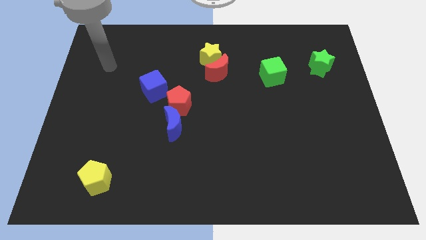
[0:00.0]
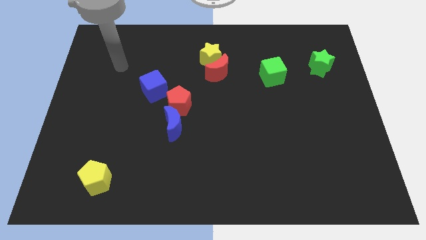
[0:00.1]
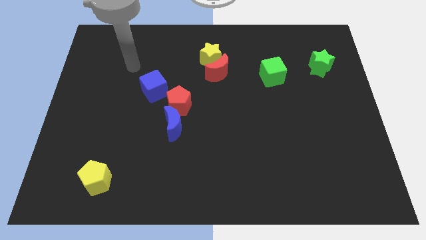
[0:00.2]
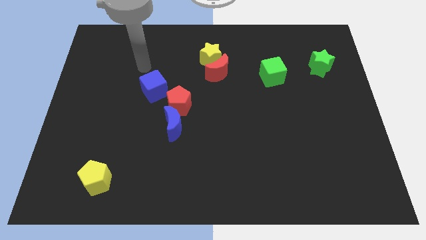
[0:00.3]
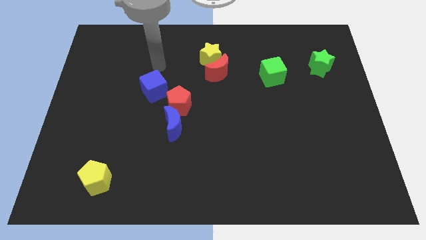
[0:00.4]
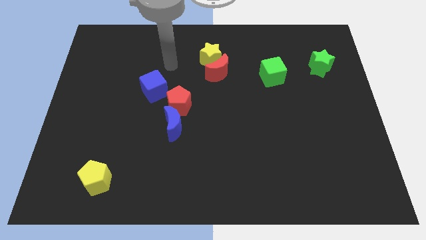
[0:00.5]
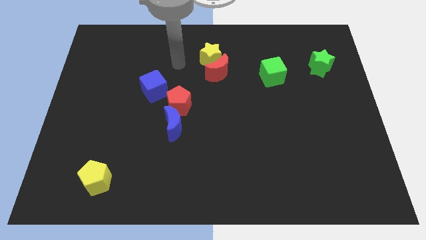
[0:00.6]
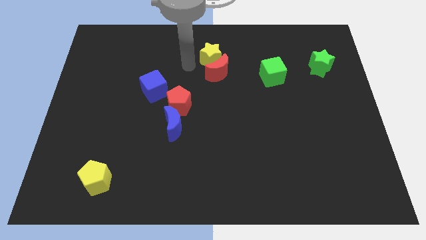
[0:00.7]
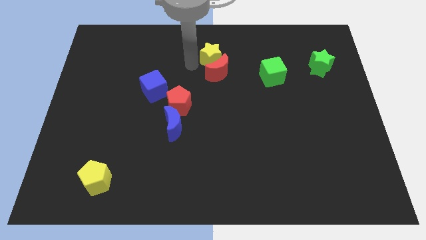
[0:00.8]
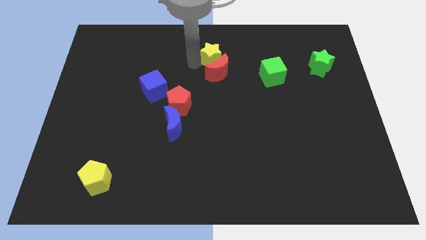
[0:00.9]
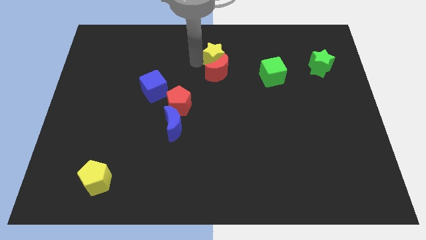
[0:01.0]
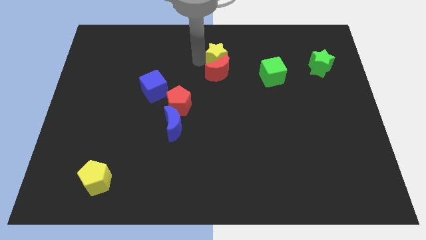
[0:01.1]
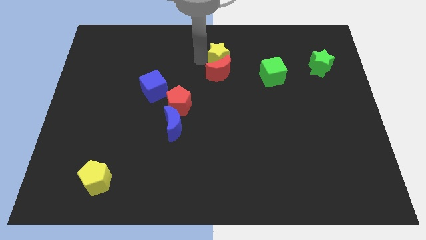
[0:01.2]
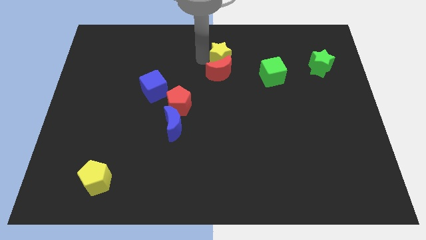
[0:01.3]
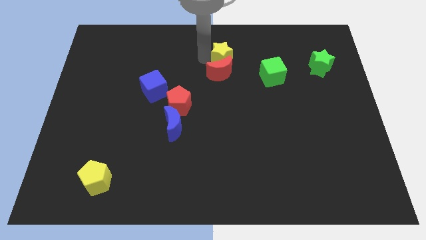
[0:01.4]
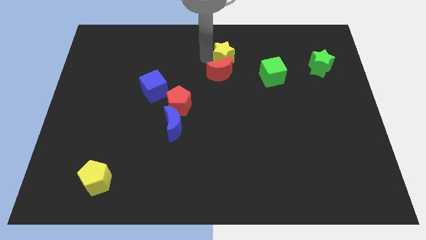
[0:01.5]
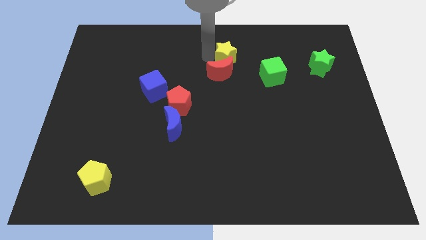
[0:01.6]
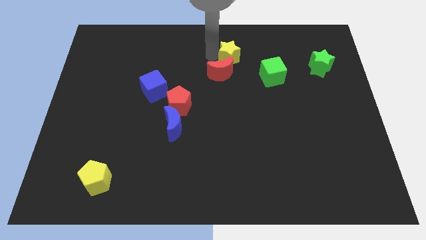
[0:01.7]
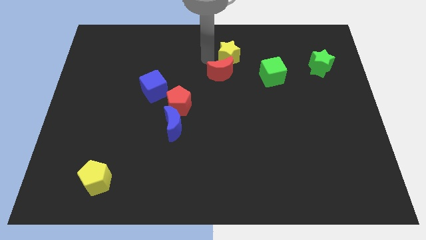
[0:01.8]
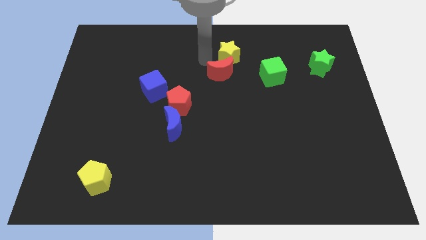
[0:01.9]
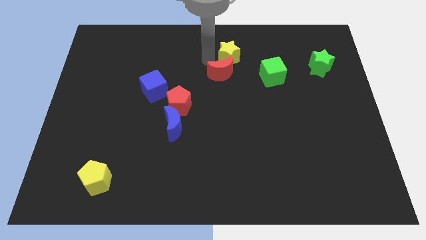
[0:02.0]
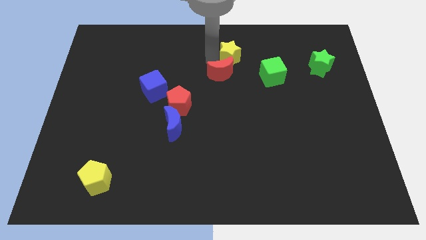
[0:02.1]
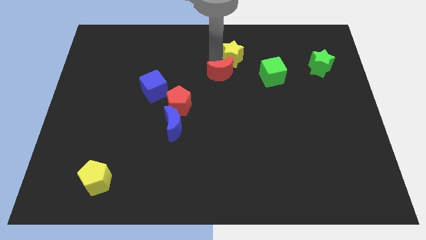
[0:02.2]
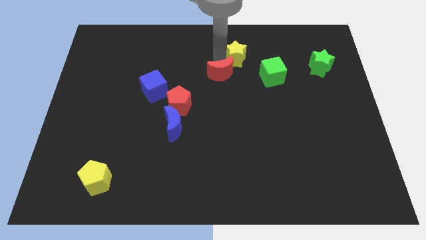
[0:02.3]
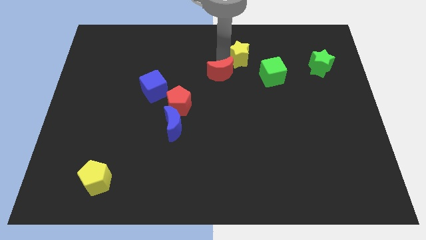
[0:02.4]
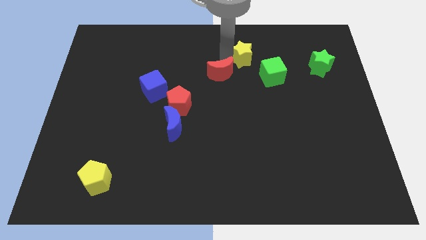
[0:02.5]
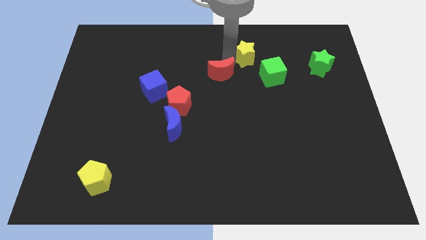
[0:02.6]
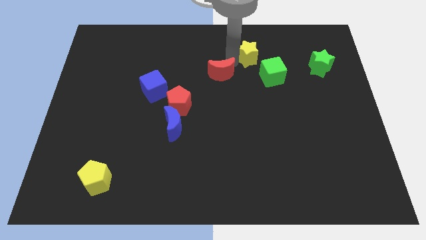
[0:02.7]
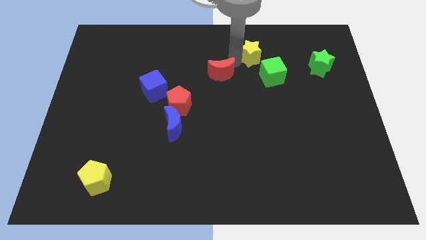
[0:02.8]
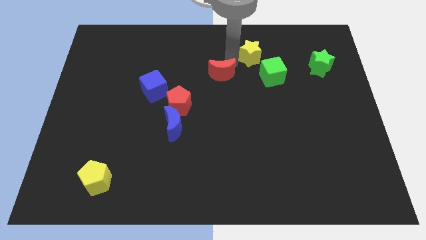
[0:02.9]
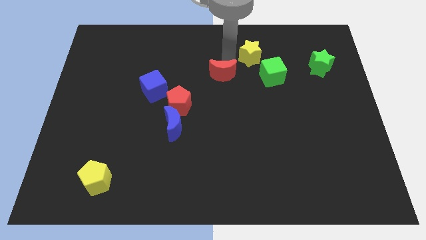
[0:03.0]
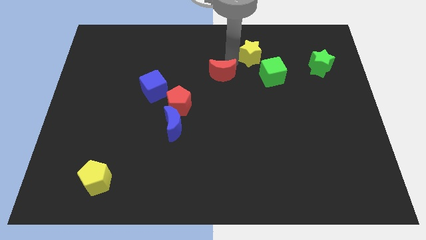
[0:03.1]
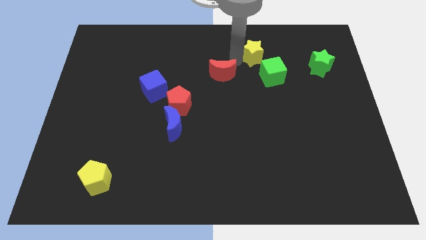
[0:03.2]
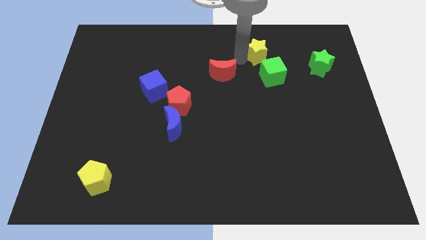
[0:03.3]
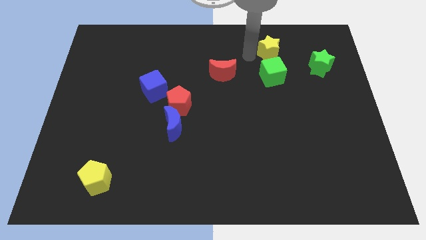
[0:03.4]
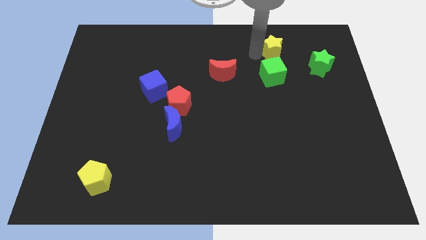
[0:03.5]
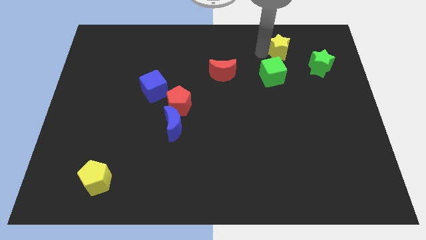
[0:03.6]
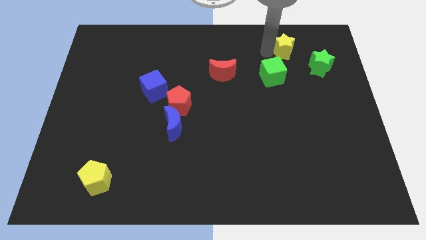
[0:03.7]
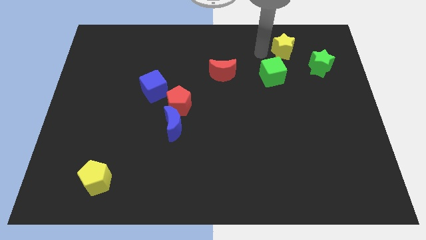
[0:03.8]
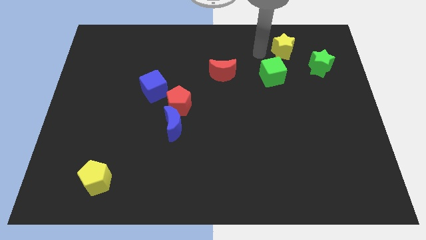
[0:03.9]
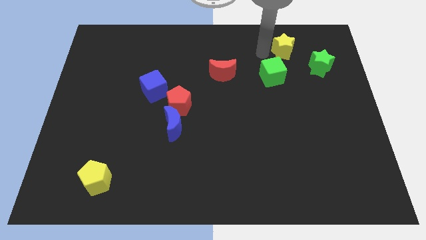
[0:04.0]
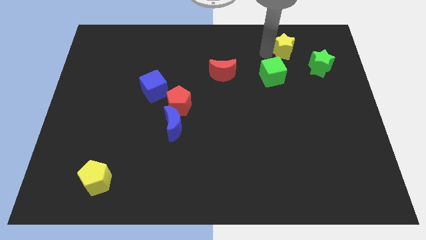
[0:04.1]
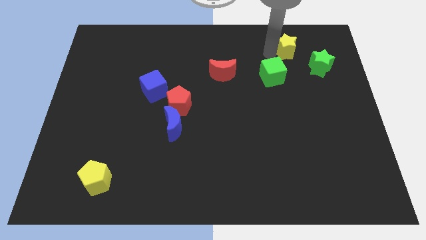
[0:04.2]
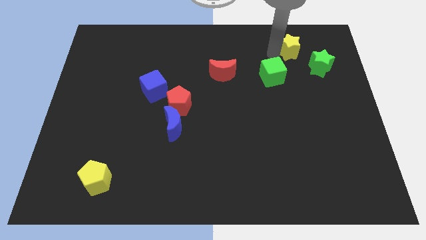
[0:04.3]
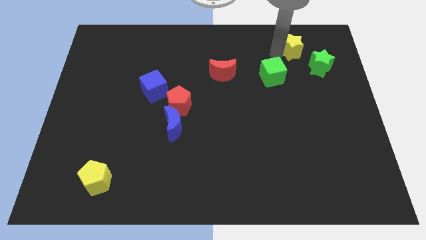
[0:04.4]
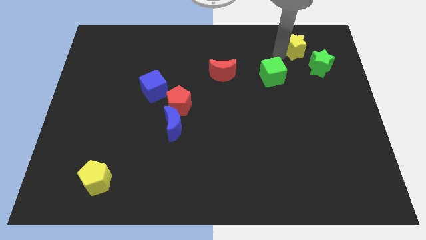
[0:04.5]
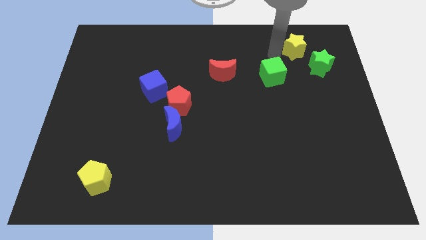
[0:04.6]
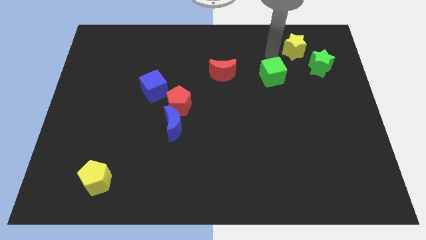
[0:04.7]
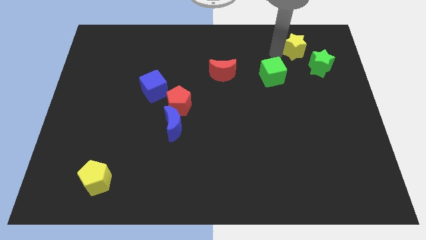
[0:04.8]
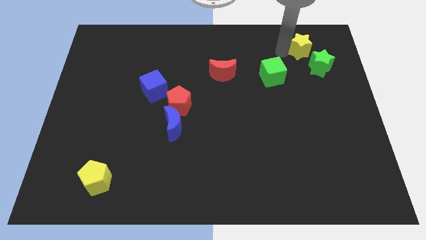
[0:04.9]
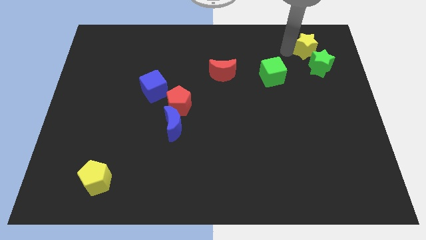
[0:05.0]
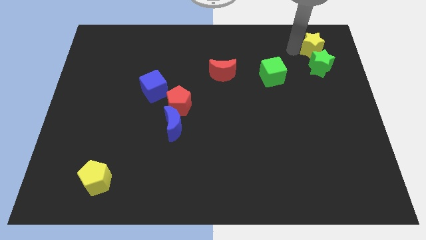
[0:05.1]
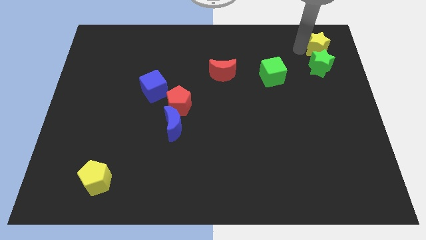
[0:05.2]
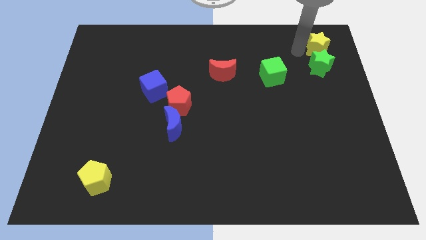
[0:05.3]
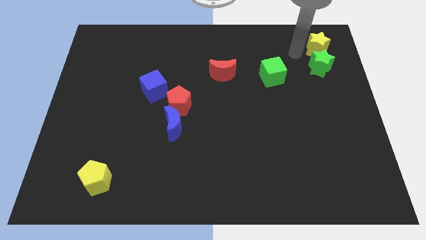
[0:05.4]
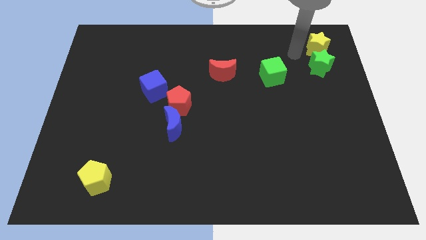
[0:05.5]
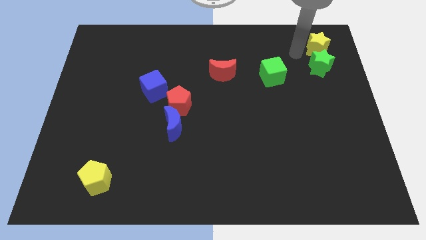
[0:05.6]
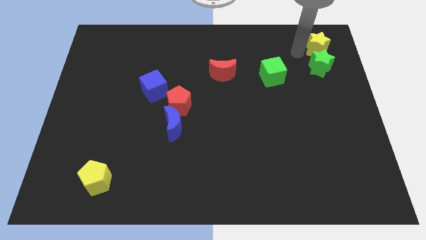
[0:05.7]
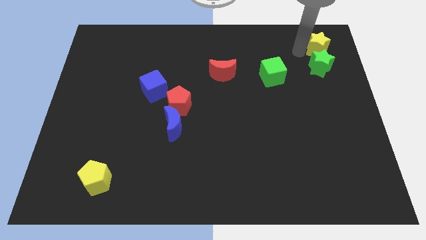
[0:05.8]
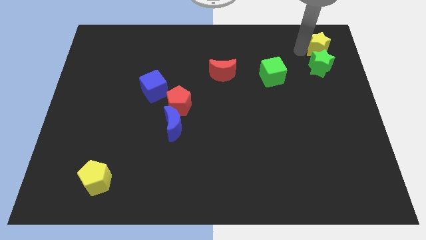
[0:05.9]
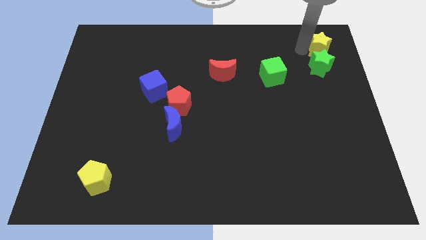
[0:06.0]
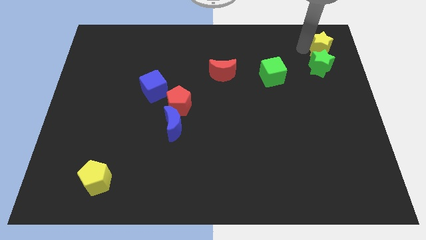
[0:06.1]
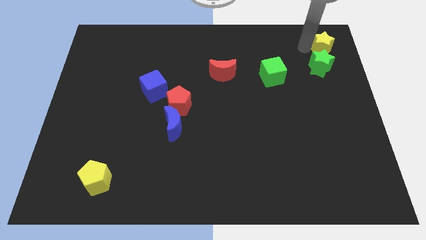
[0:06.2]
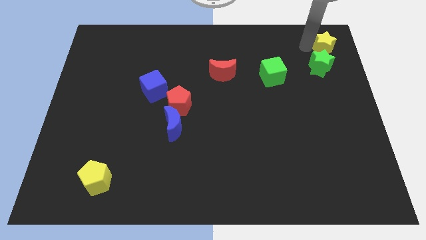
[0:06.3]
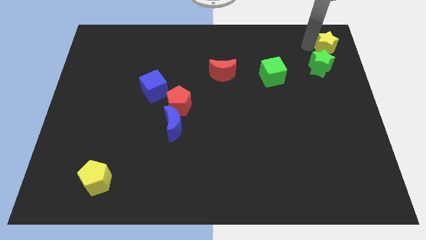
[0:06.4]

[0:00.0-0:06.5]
put the yellow star to the top right of the board
